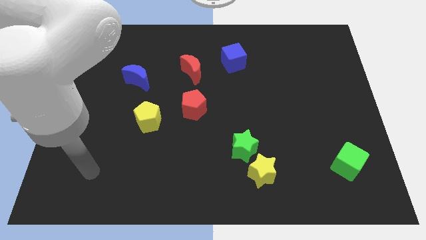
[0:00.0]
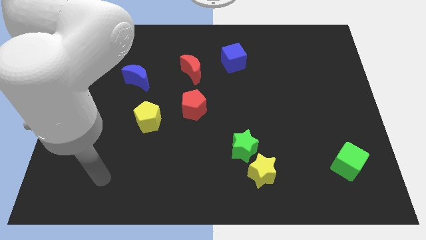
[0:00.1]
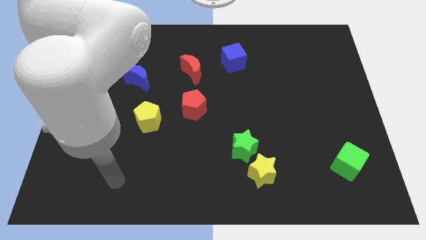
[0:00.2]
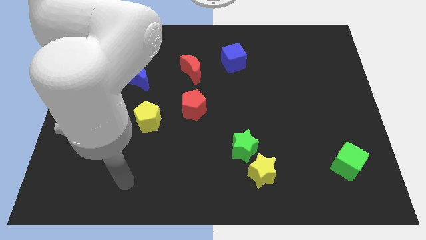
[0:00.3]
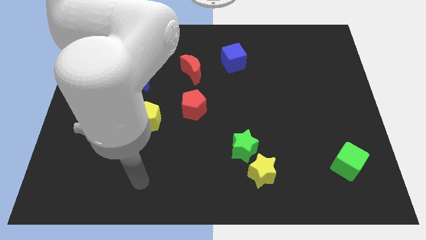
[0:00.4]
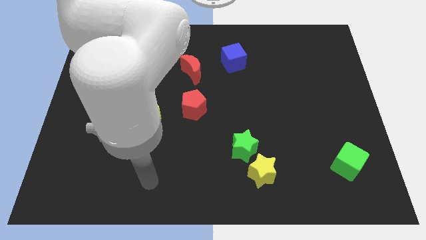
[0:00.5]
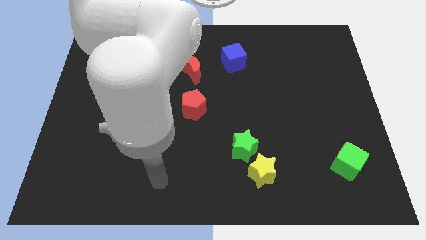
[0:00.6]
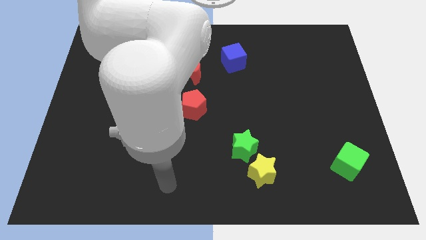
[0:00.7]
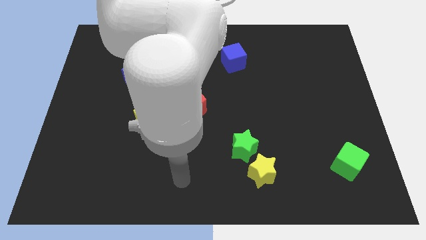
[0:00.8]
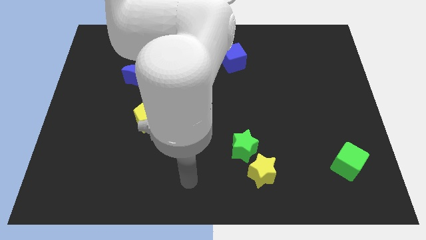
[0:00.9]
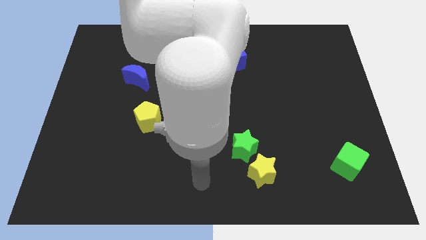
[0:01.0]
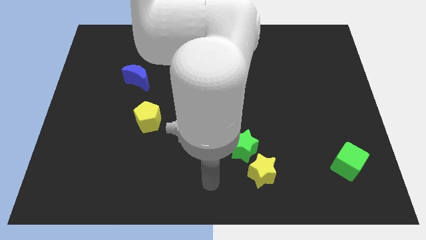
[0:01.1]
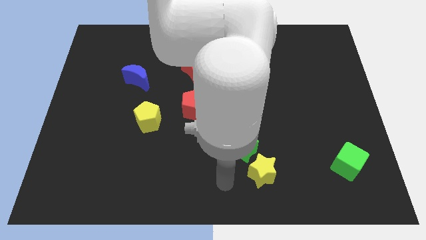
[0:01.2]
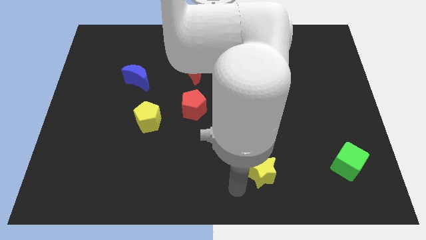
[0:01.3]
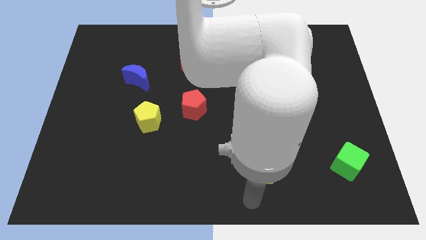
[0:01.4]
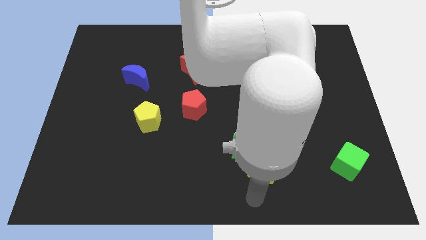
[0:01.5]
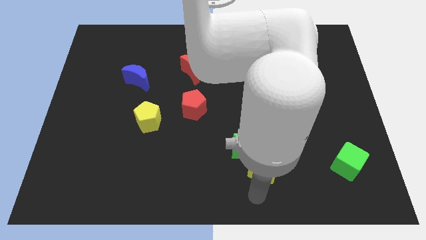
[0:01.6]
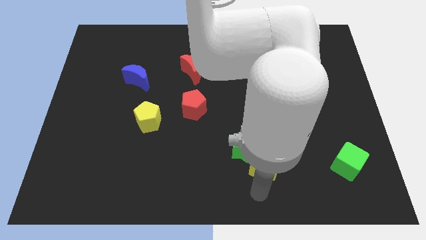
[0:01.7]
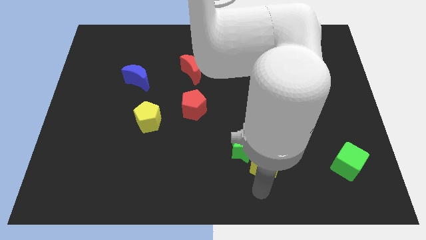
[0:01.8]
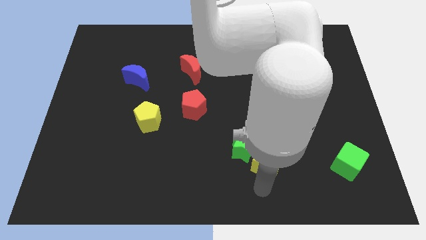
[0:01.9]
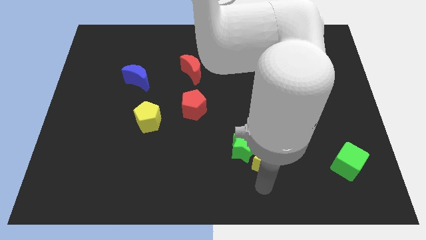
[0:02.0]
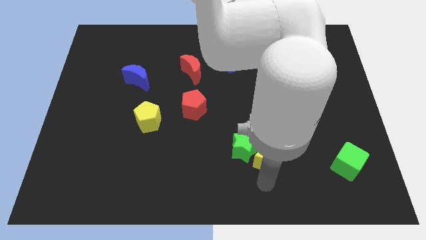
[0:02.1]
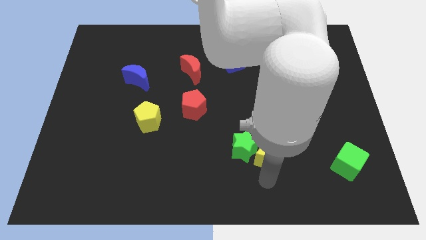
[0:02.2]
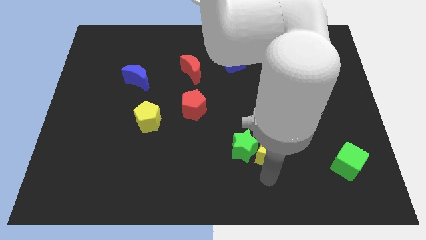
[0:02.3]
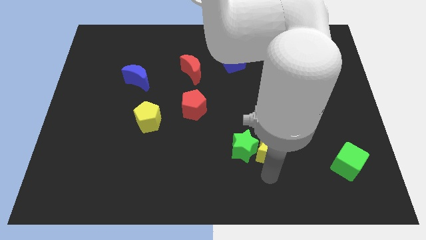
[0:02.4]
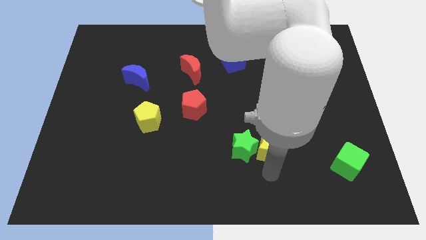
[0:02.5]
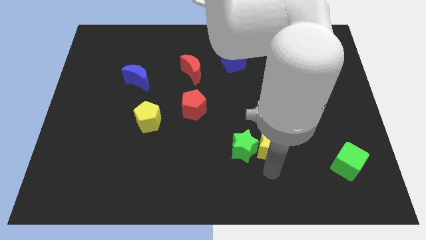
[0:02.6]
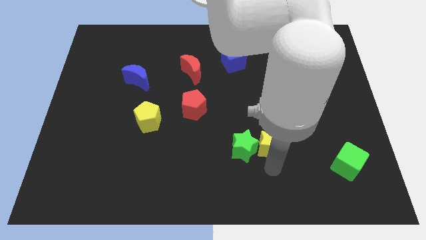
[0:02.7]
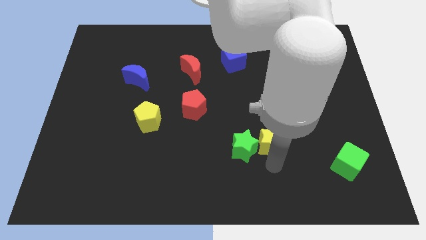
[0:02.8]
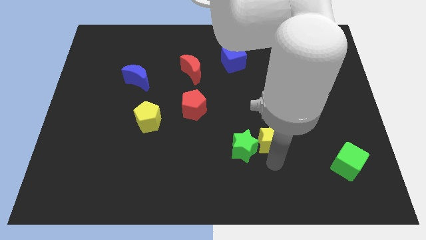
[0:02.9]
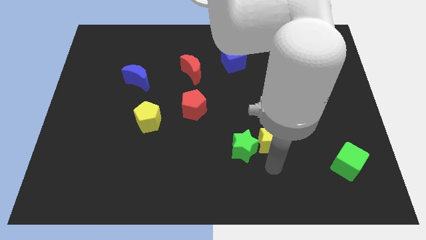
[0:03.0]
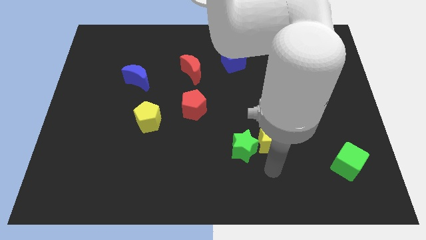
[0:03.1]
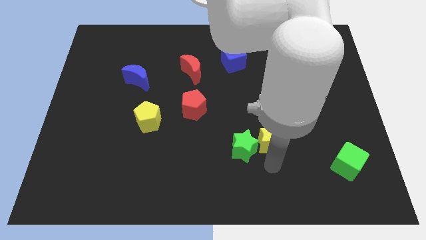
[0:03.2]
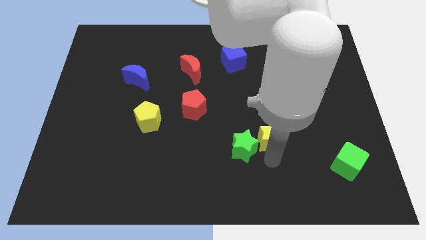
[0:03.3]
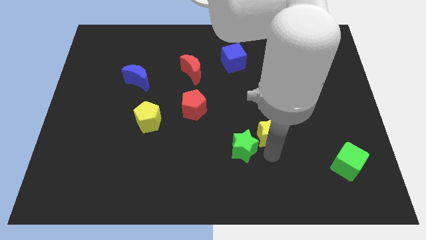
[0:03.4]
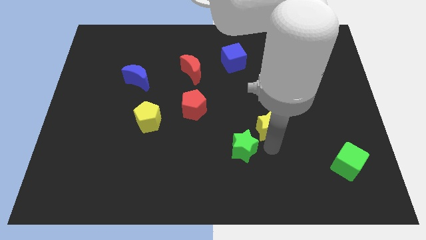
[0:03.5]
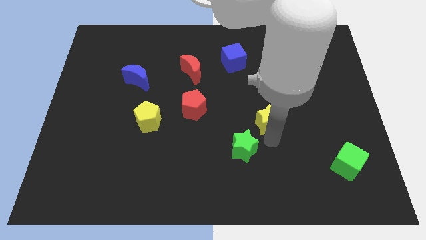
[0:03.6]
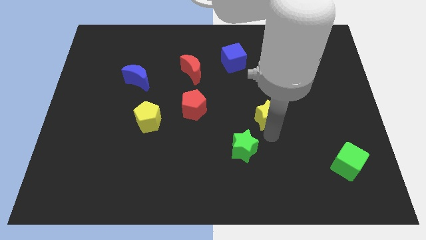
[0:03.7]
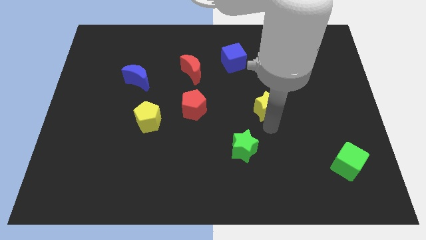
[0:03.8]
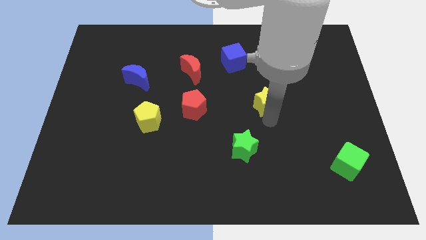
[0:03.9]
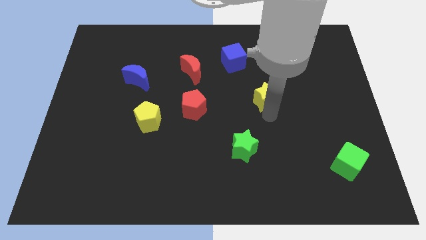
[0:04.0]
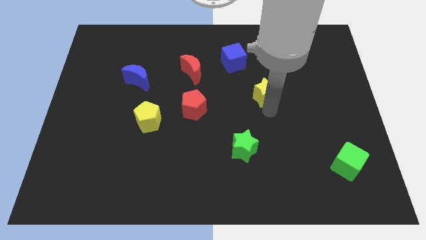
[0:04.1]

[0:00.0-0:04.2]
push the yellow star upwards

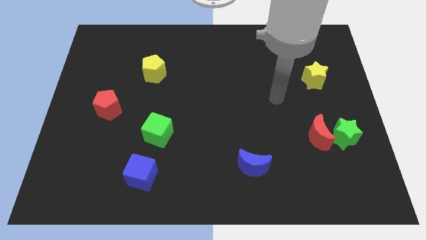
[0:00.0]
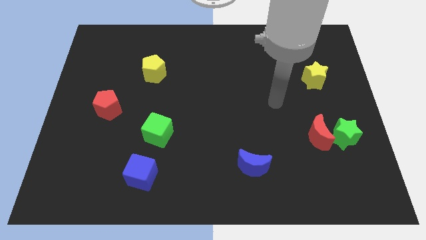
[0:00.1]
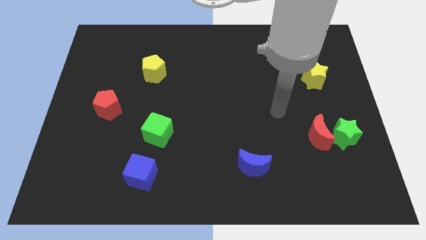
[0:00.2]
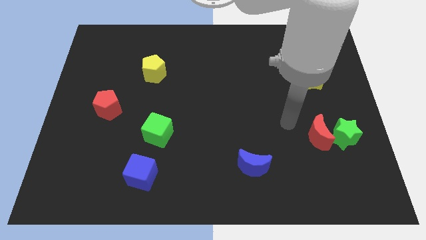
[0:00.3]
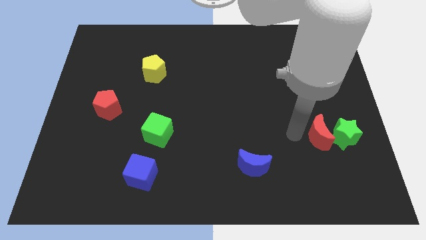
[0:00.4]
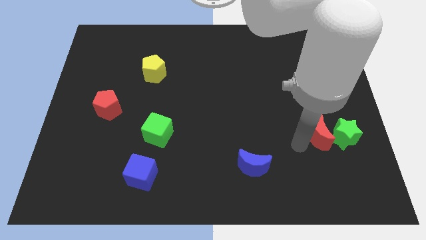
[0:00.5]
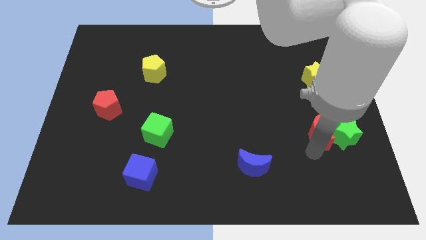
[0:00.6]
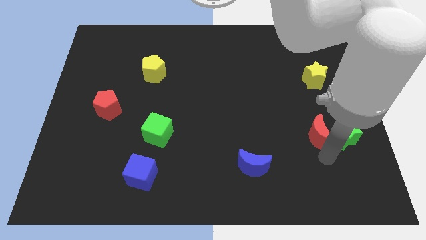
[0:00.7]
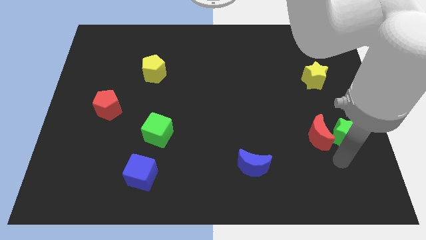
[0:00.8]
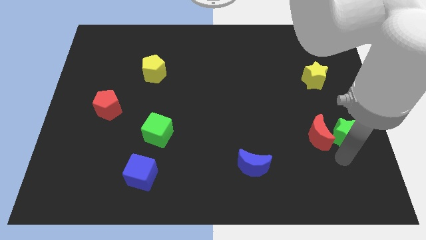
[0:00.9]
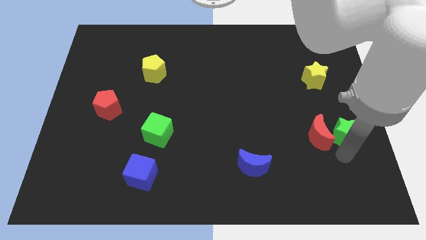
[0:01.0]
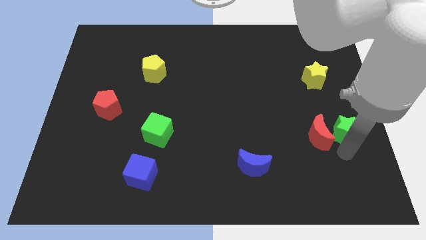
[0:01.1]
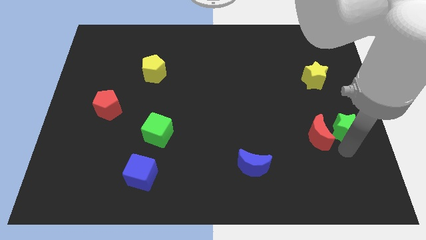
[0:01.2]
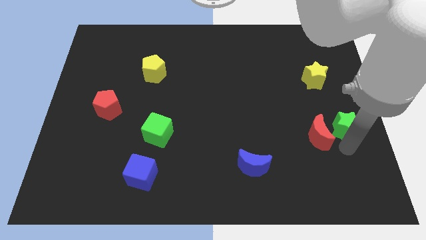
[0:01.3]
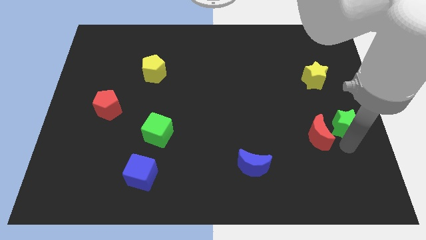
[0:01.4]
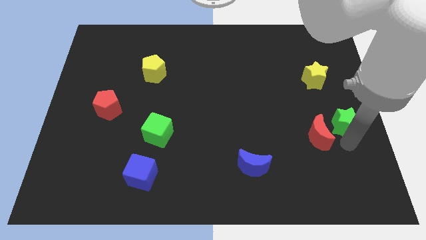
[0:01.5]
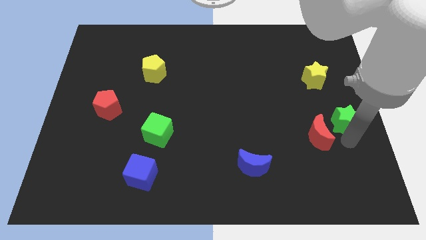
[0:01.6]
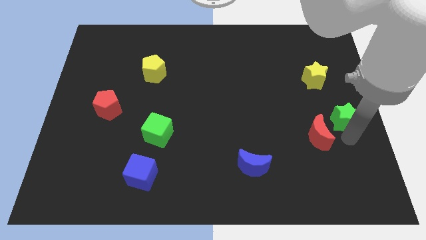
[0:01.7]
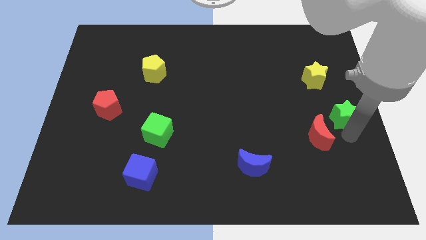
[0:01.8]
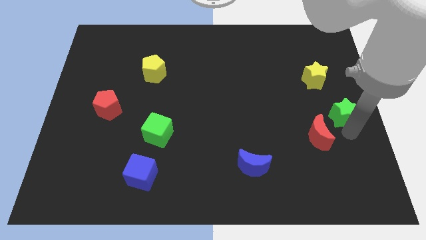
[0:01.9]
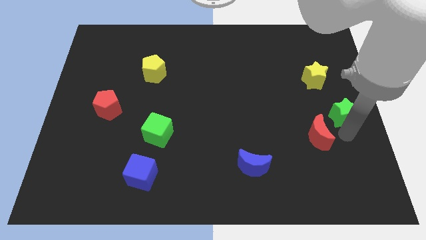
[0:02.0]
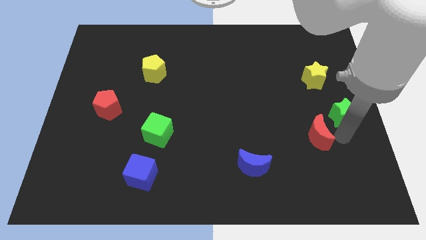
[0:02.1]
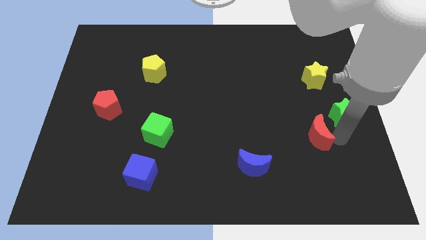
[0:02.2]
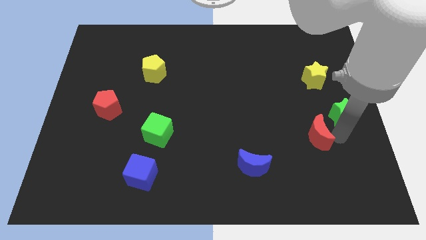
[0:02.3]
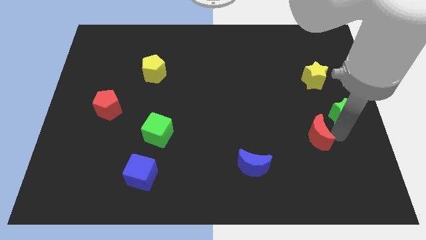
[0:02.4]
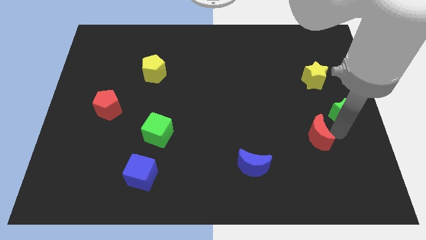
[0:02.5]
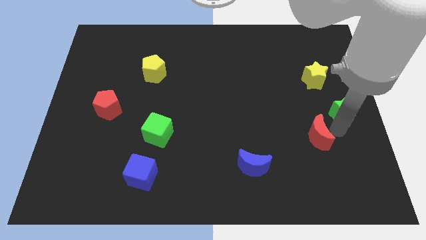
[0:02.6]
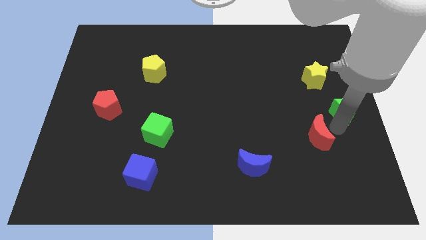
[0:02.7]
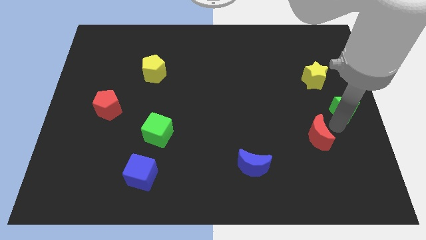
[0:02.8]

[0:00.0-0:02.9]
push the green star up a little

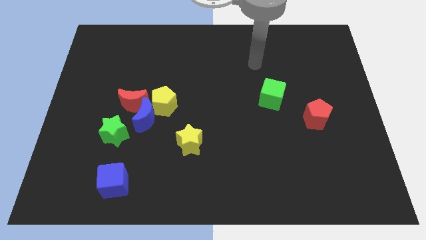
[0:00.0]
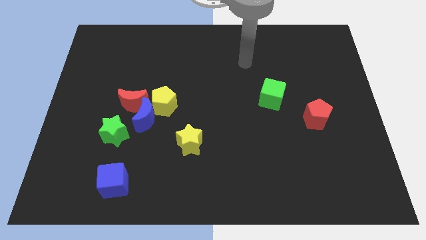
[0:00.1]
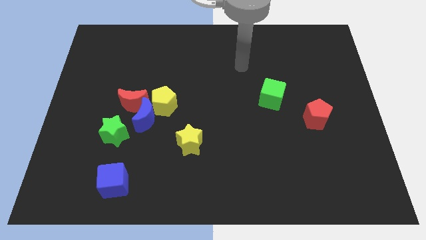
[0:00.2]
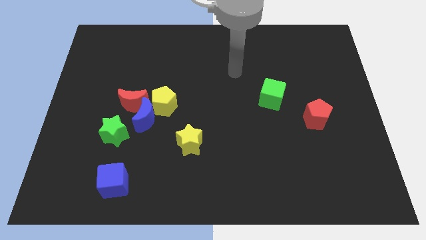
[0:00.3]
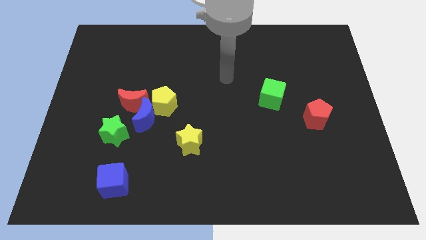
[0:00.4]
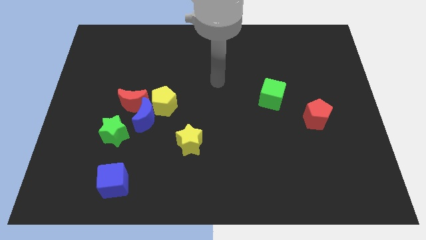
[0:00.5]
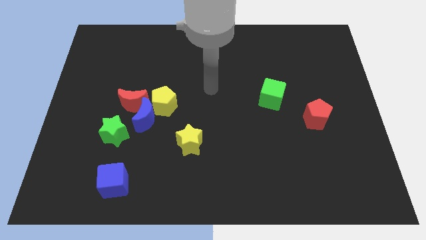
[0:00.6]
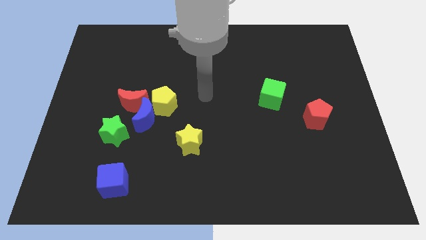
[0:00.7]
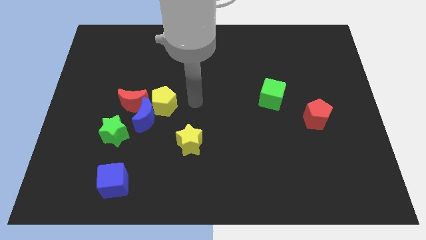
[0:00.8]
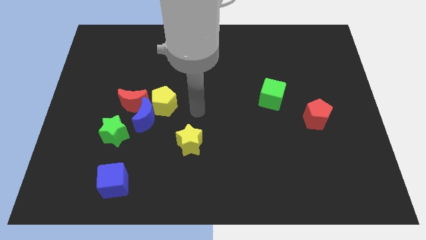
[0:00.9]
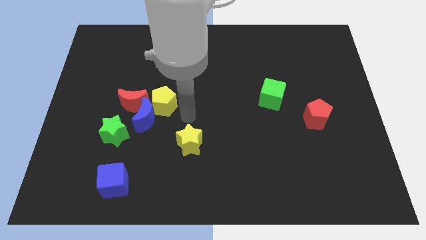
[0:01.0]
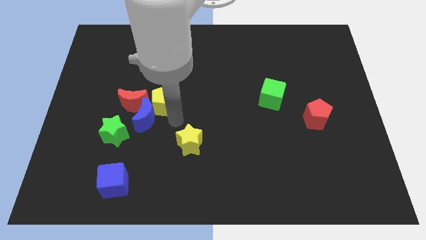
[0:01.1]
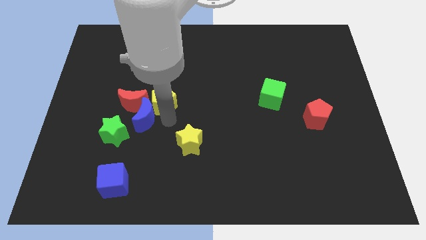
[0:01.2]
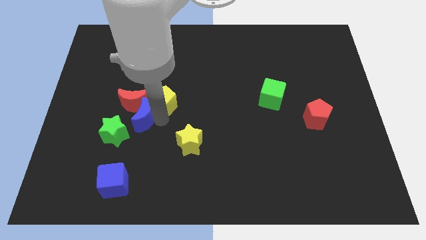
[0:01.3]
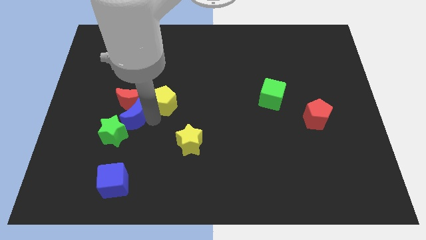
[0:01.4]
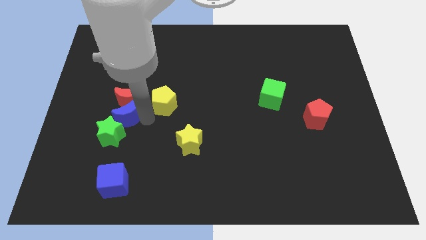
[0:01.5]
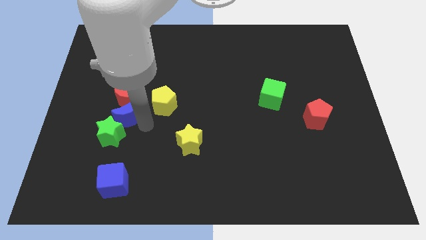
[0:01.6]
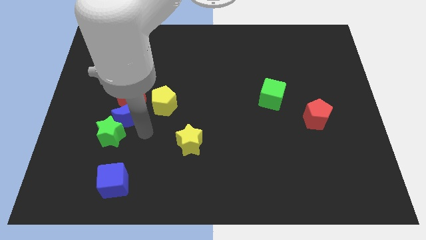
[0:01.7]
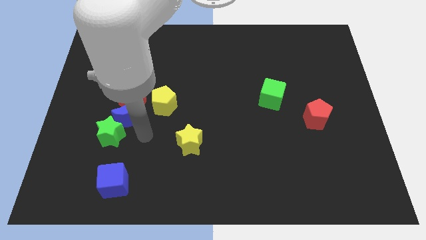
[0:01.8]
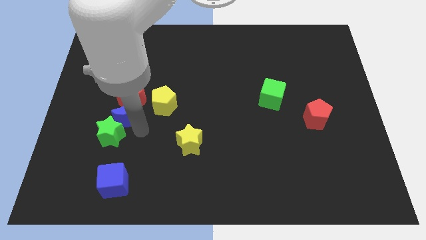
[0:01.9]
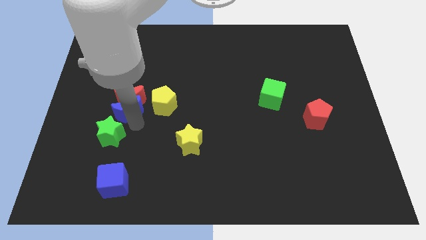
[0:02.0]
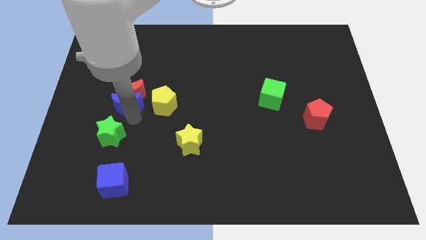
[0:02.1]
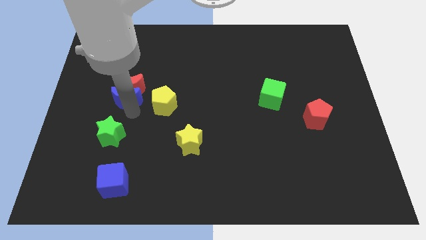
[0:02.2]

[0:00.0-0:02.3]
slide the blue moon upwards and then left slightly
